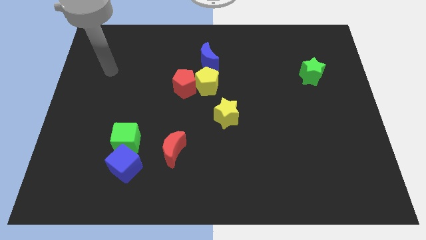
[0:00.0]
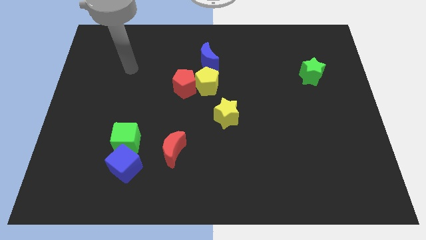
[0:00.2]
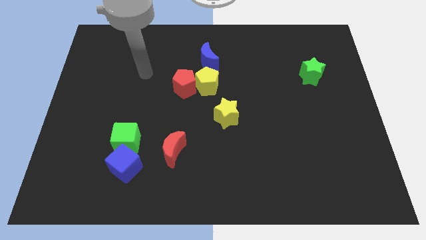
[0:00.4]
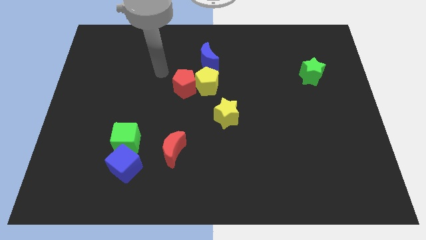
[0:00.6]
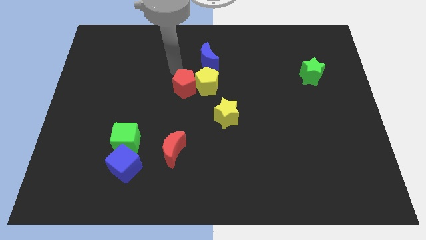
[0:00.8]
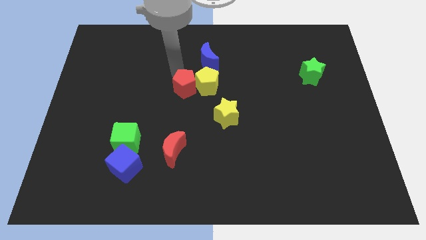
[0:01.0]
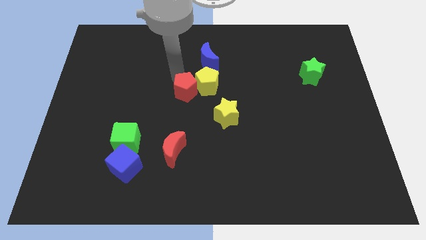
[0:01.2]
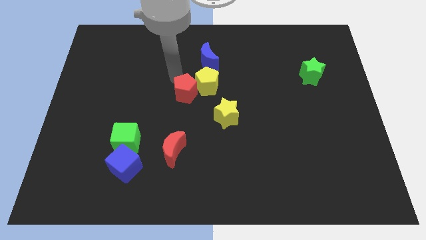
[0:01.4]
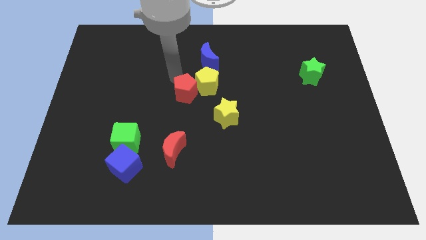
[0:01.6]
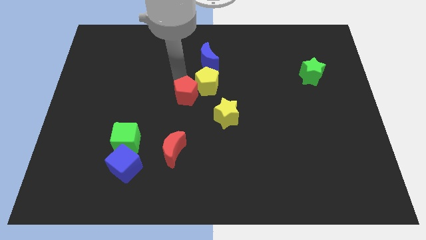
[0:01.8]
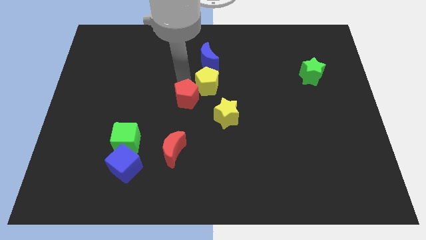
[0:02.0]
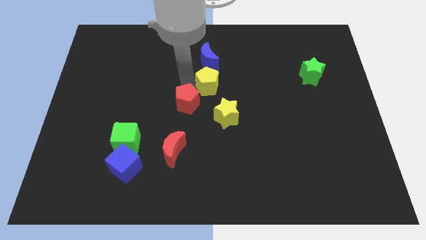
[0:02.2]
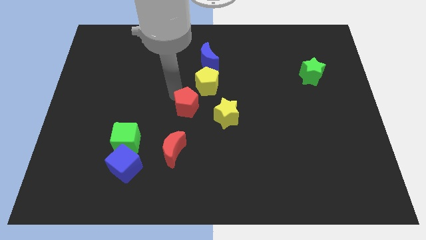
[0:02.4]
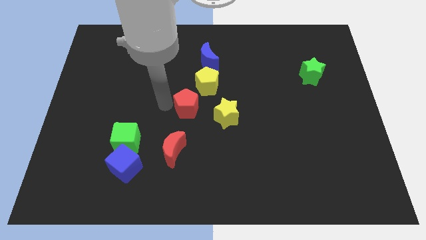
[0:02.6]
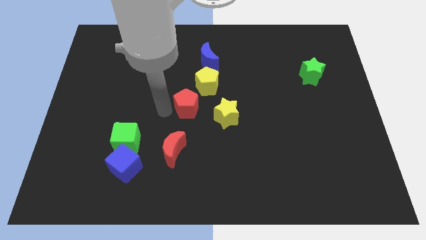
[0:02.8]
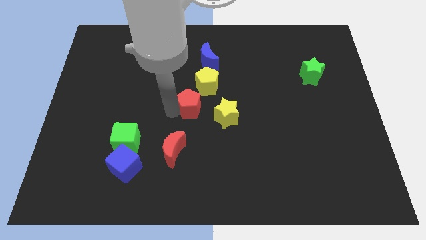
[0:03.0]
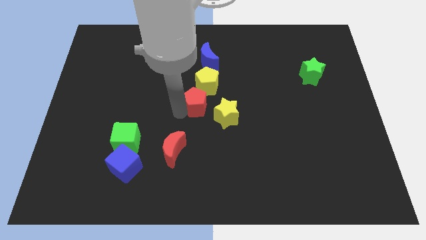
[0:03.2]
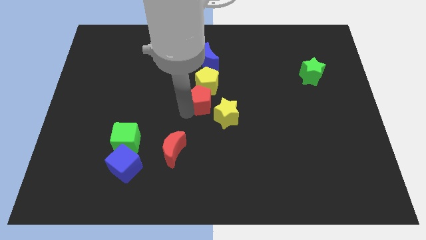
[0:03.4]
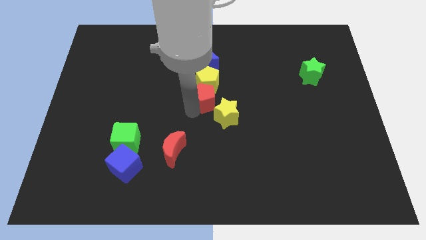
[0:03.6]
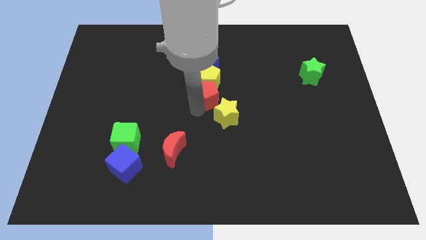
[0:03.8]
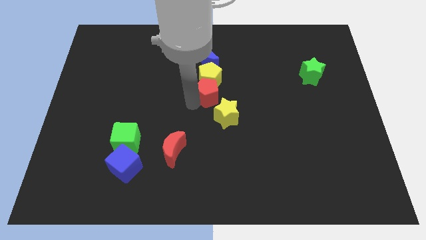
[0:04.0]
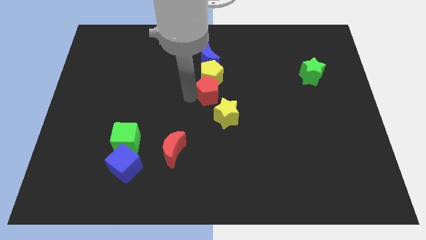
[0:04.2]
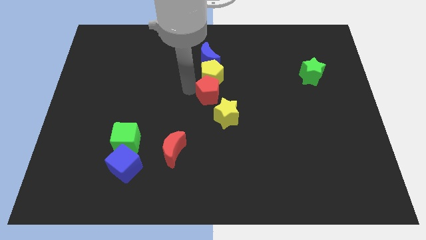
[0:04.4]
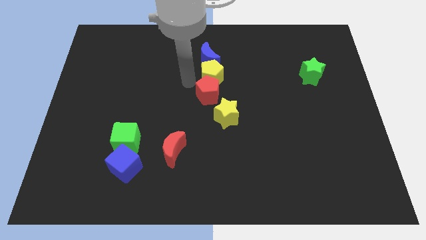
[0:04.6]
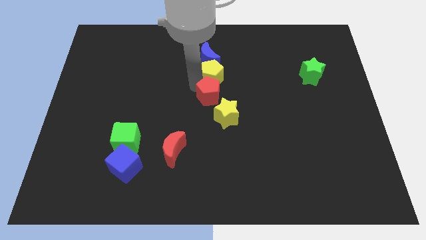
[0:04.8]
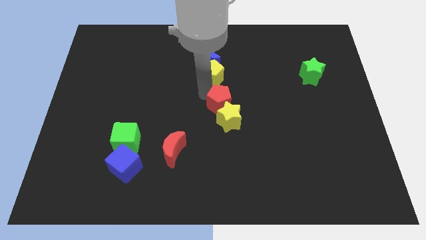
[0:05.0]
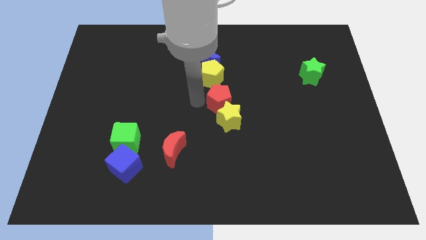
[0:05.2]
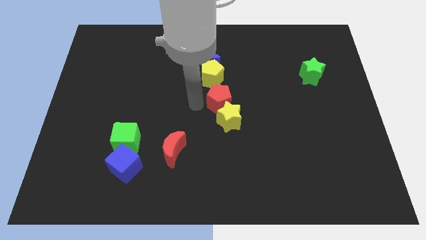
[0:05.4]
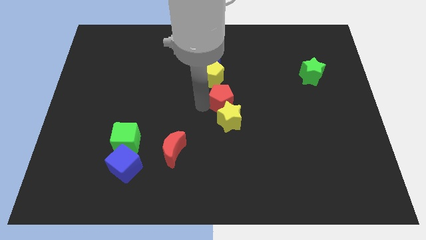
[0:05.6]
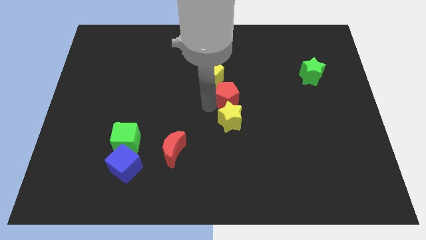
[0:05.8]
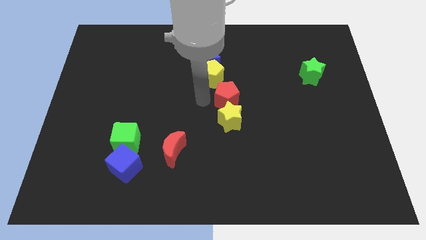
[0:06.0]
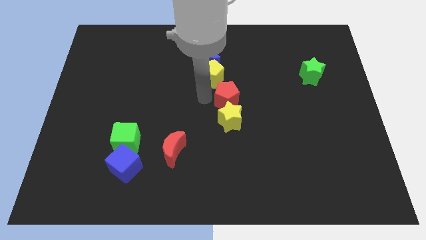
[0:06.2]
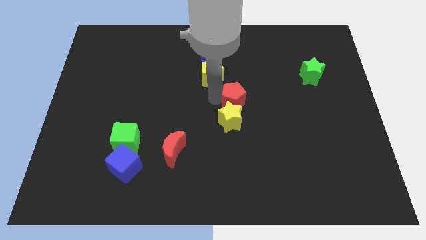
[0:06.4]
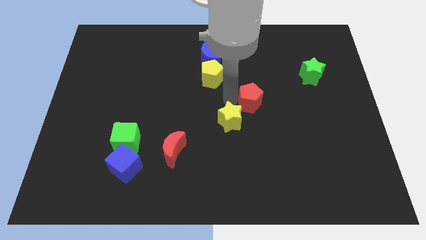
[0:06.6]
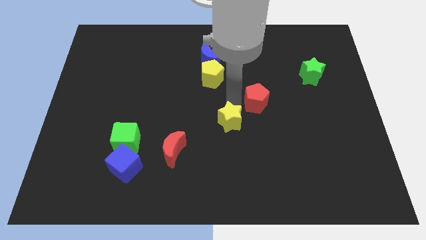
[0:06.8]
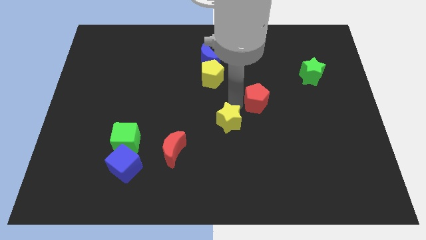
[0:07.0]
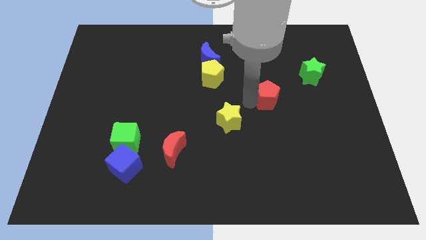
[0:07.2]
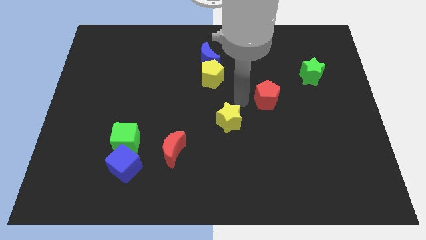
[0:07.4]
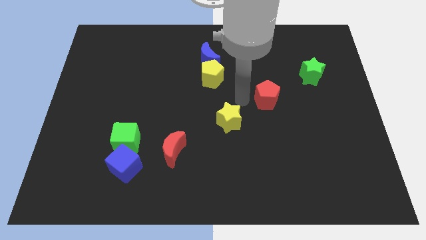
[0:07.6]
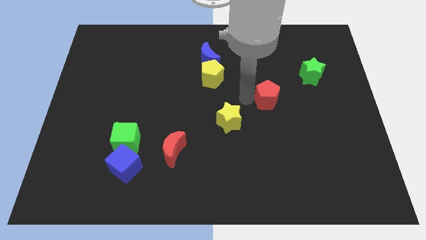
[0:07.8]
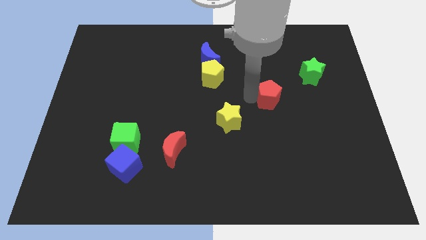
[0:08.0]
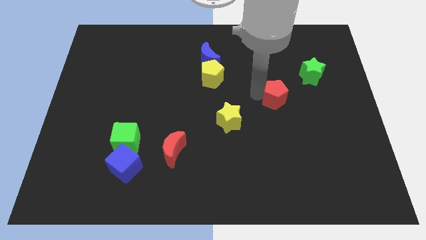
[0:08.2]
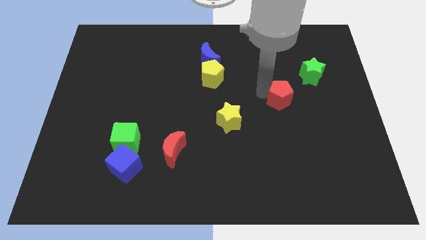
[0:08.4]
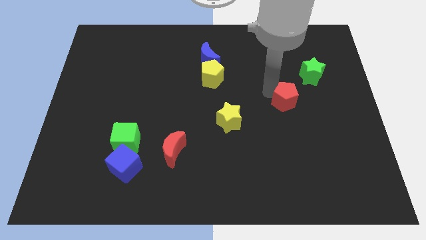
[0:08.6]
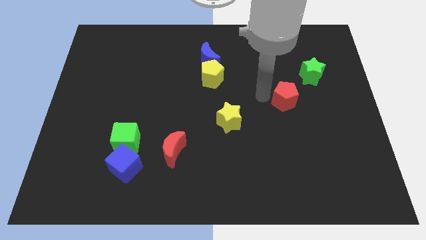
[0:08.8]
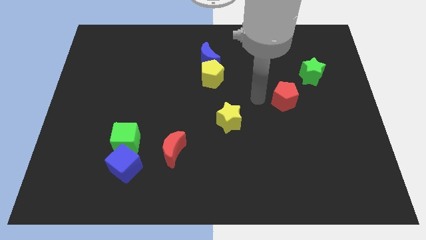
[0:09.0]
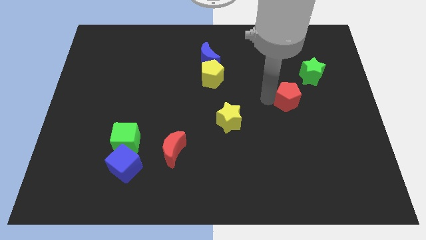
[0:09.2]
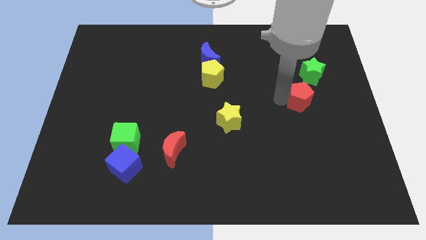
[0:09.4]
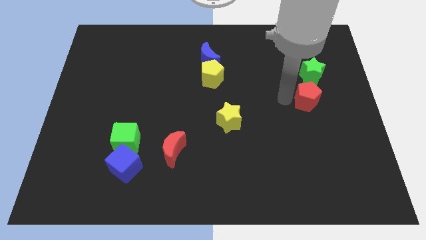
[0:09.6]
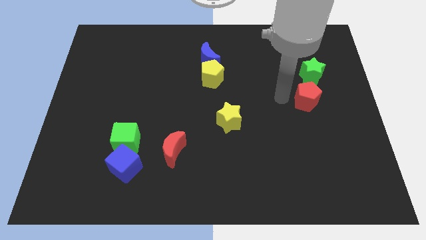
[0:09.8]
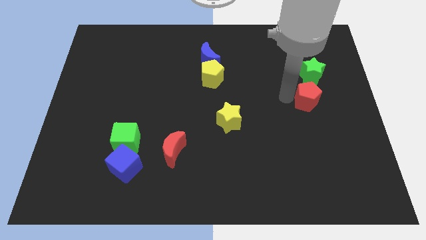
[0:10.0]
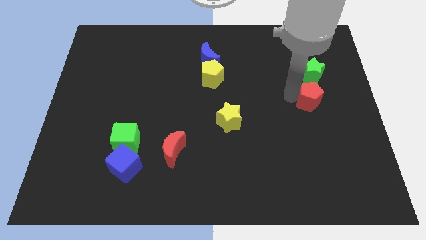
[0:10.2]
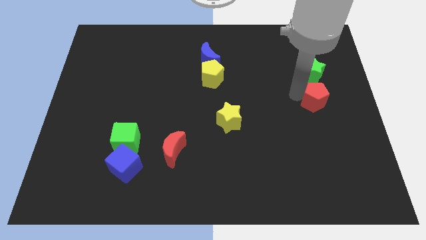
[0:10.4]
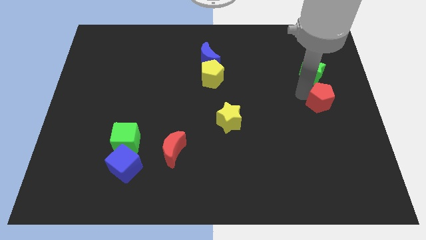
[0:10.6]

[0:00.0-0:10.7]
put the red pentagon to the right side of the board

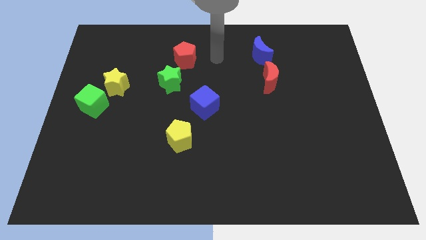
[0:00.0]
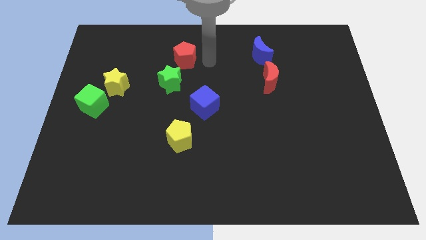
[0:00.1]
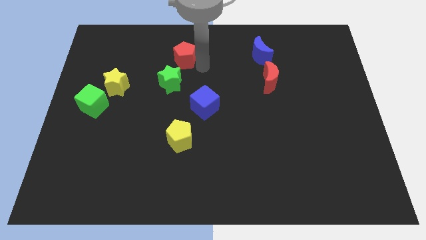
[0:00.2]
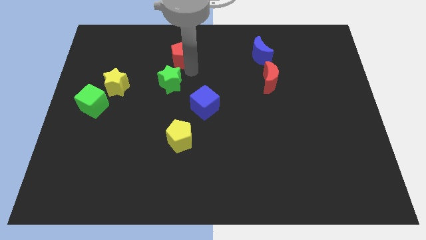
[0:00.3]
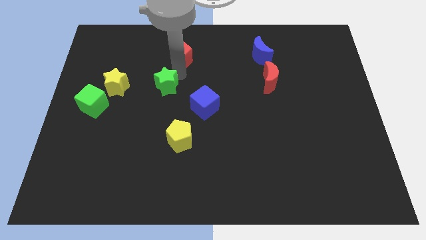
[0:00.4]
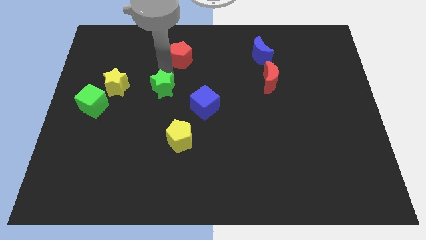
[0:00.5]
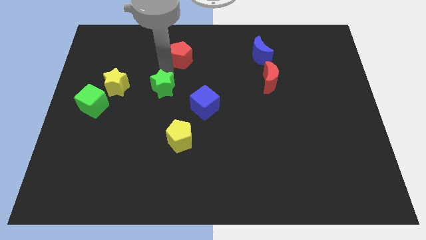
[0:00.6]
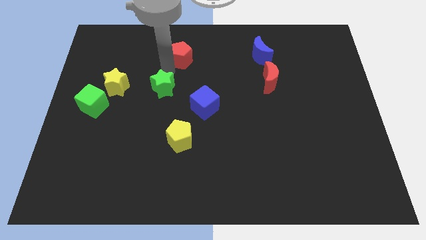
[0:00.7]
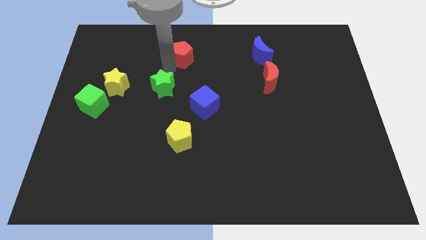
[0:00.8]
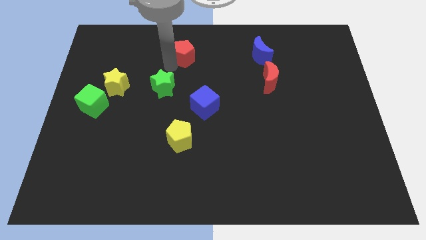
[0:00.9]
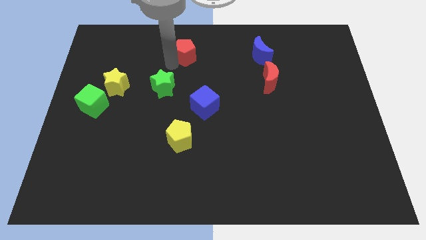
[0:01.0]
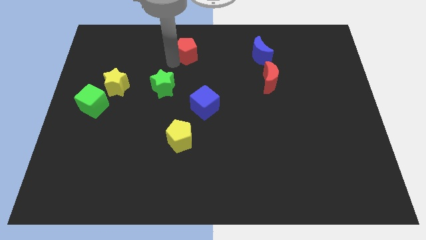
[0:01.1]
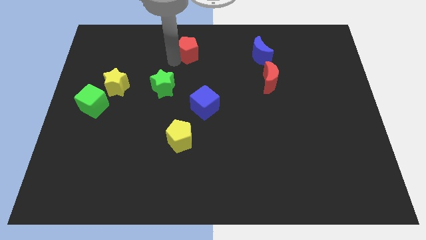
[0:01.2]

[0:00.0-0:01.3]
put the red pentagon to the top

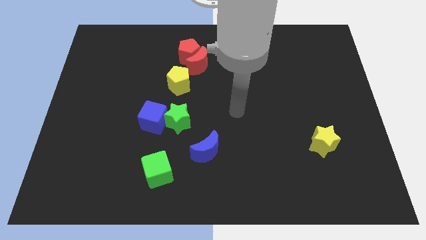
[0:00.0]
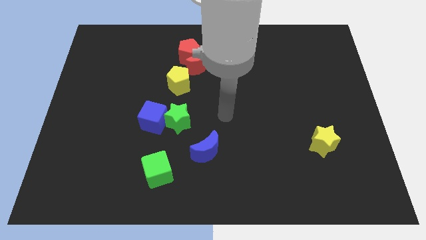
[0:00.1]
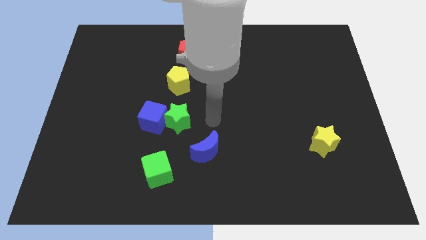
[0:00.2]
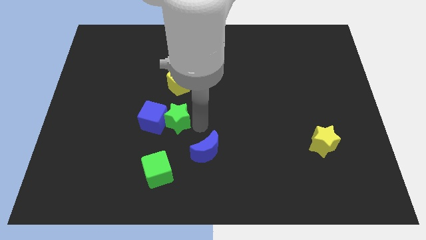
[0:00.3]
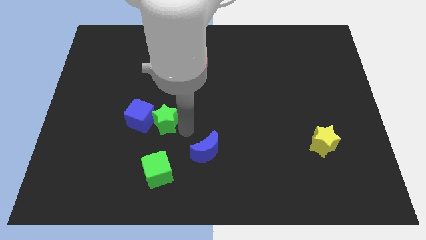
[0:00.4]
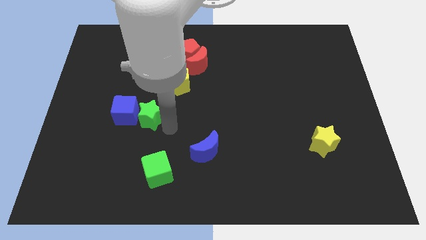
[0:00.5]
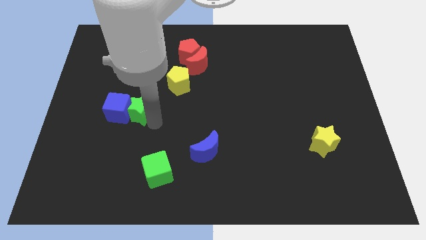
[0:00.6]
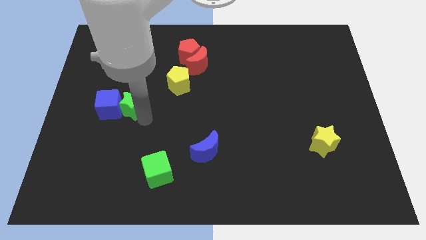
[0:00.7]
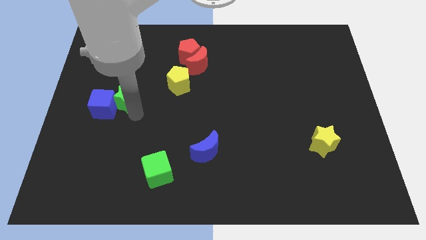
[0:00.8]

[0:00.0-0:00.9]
move the blue cube to the center left
